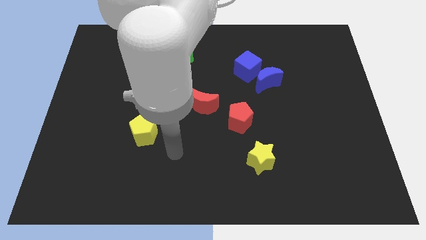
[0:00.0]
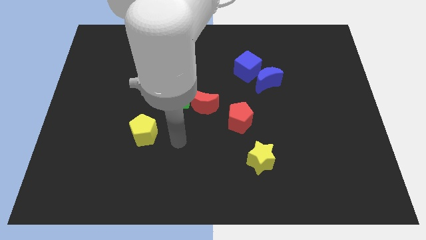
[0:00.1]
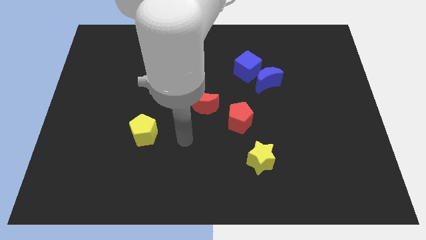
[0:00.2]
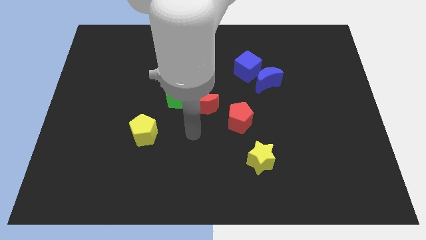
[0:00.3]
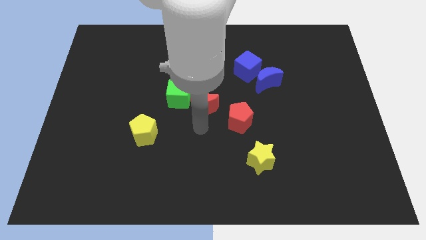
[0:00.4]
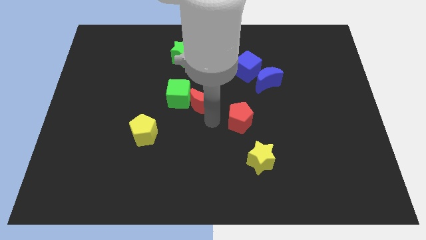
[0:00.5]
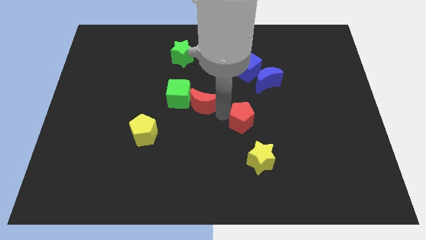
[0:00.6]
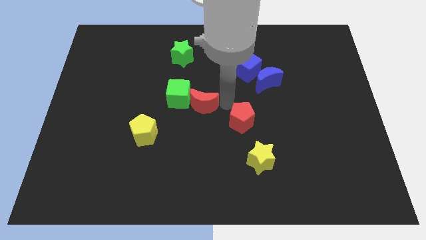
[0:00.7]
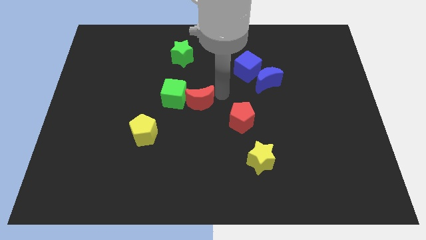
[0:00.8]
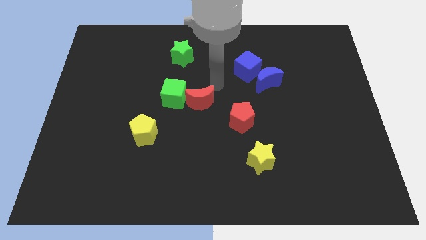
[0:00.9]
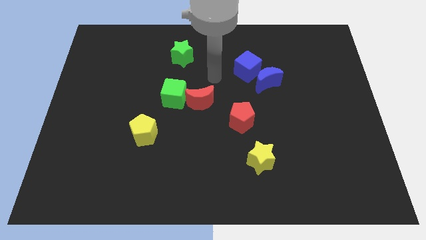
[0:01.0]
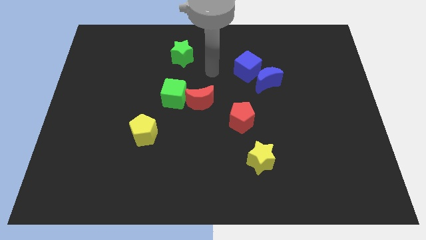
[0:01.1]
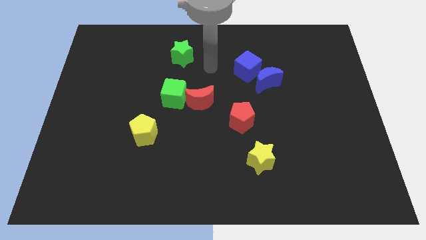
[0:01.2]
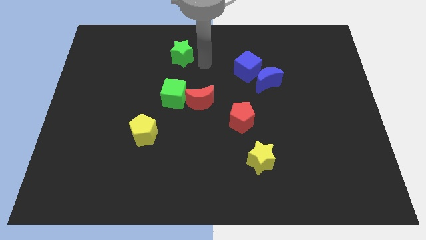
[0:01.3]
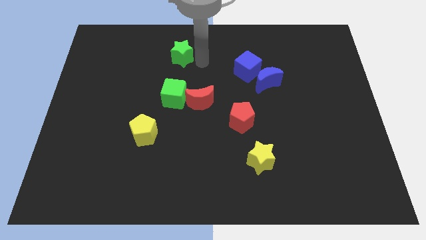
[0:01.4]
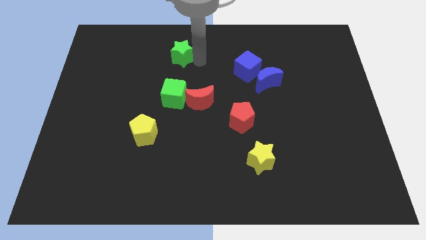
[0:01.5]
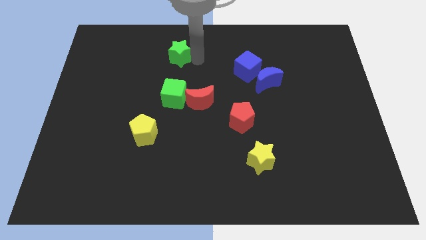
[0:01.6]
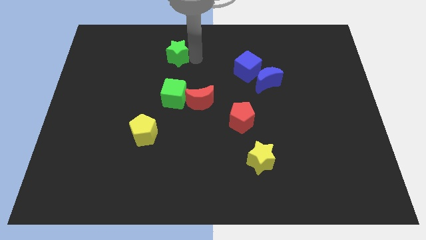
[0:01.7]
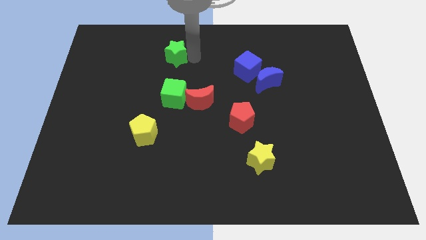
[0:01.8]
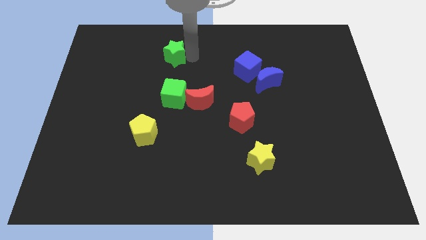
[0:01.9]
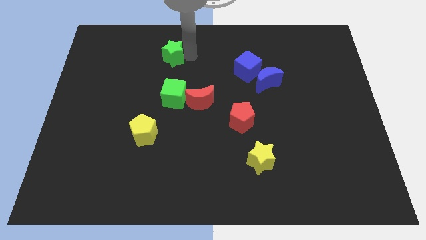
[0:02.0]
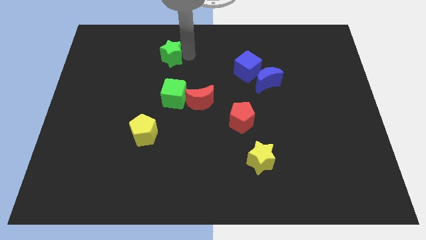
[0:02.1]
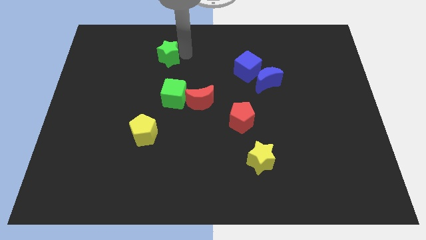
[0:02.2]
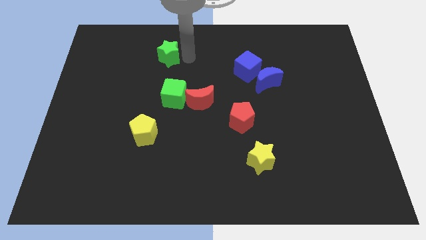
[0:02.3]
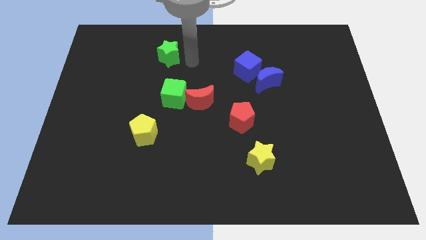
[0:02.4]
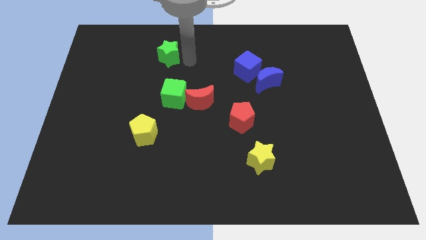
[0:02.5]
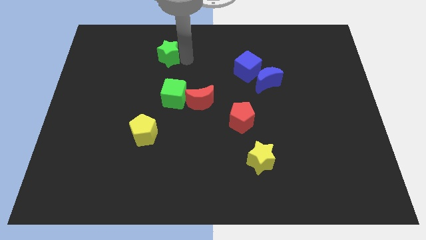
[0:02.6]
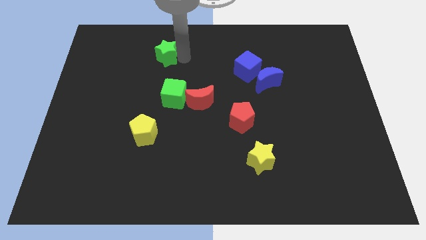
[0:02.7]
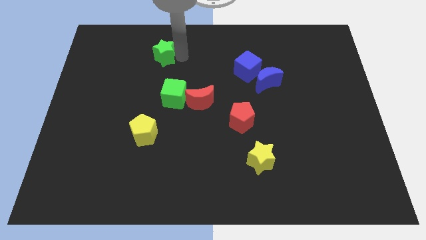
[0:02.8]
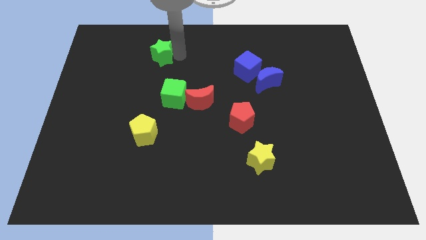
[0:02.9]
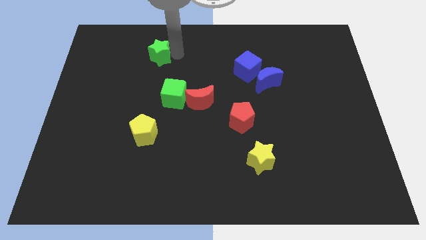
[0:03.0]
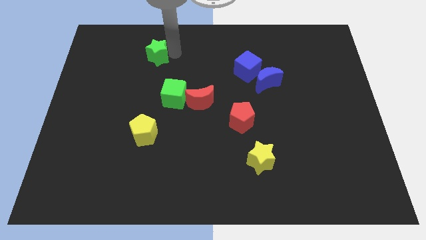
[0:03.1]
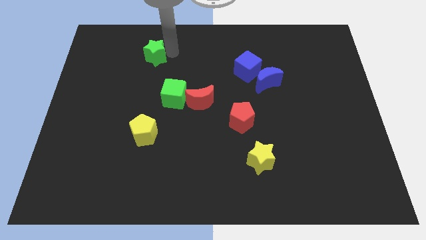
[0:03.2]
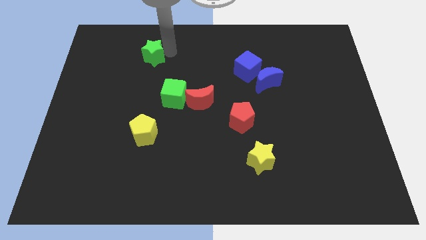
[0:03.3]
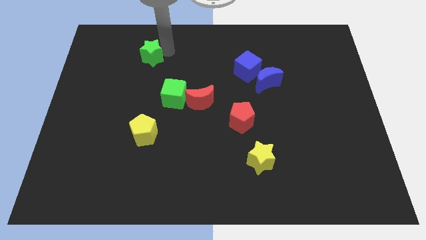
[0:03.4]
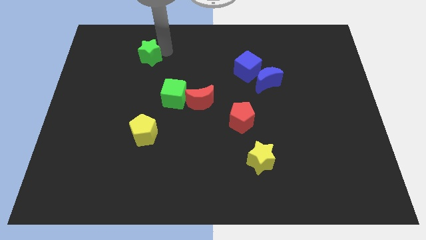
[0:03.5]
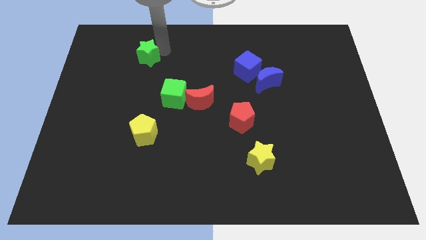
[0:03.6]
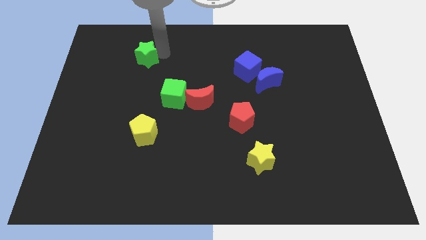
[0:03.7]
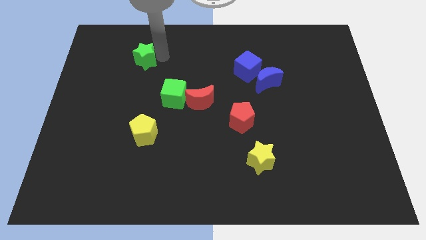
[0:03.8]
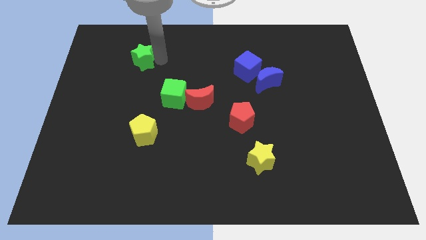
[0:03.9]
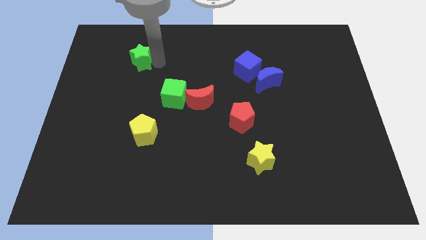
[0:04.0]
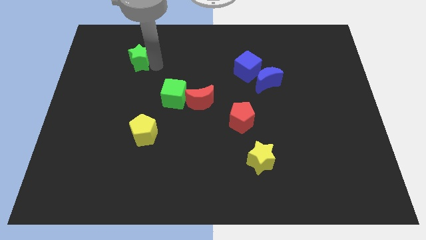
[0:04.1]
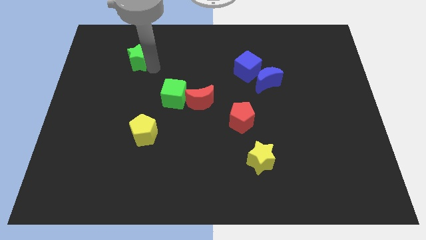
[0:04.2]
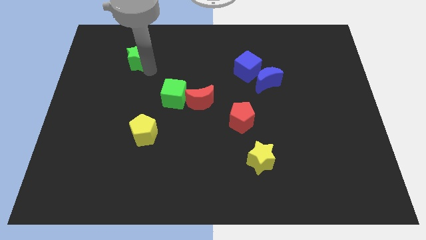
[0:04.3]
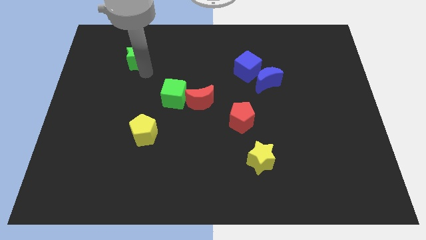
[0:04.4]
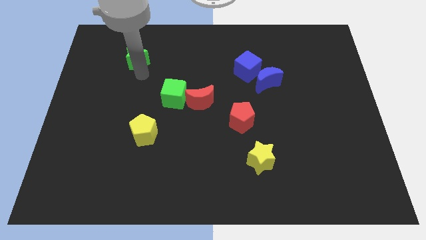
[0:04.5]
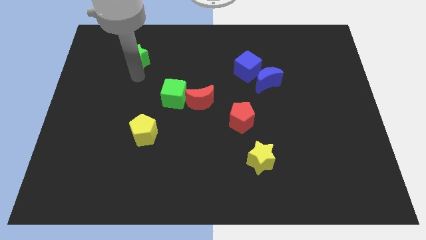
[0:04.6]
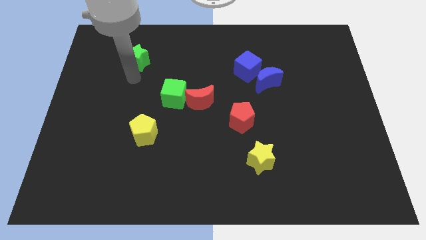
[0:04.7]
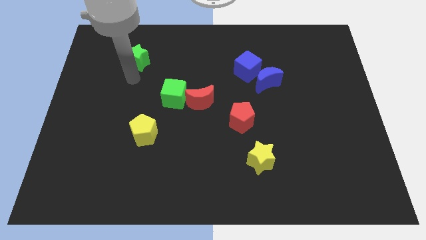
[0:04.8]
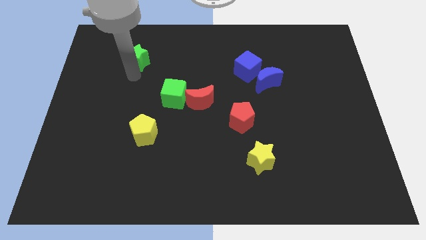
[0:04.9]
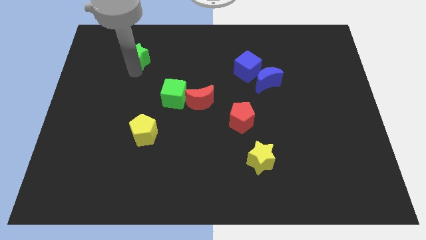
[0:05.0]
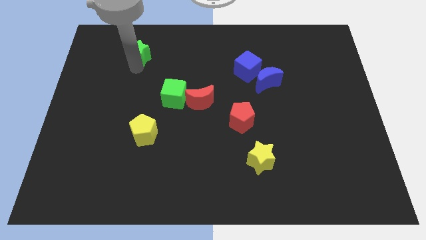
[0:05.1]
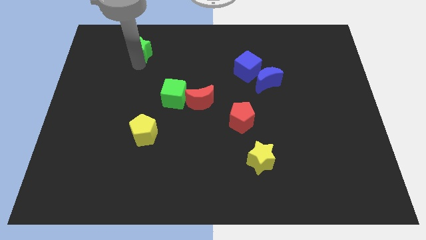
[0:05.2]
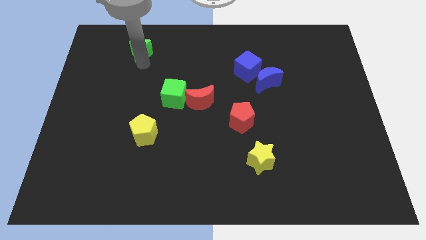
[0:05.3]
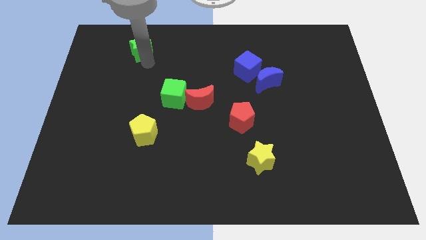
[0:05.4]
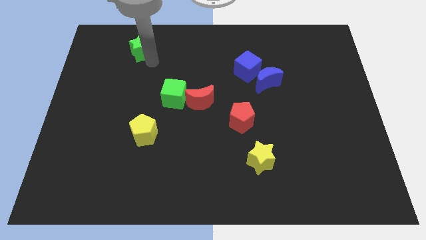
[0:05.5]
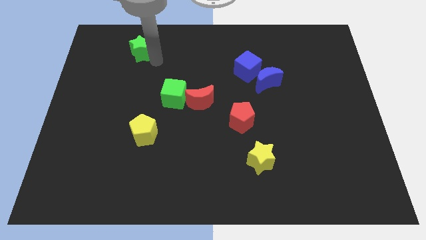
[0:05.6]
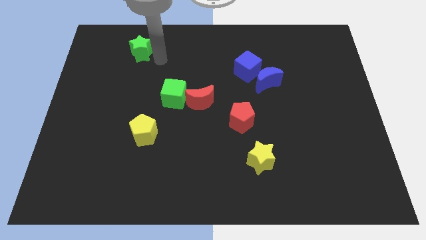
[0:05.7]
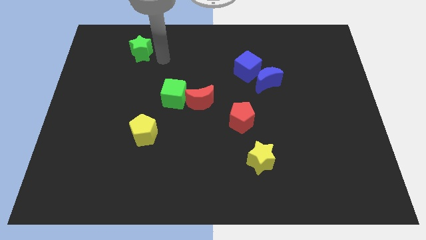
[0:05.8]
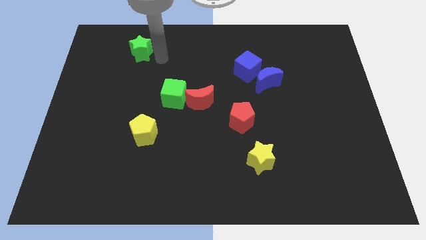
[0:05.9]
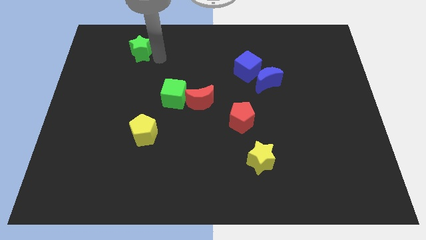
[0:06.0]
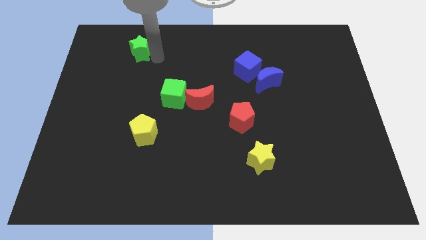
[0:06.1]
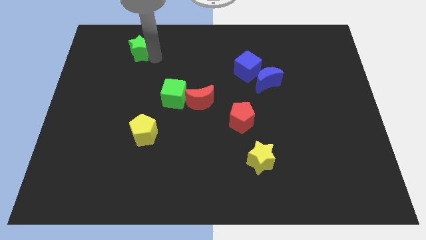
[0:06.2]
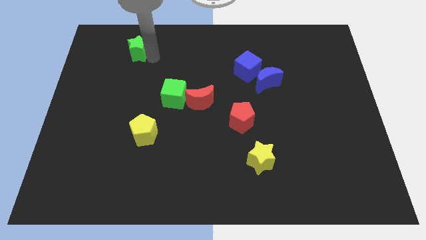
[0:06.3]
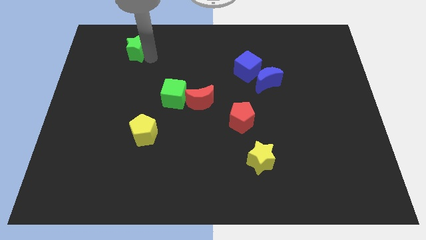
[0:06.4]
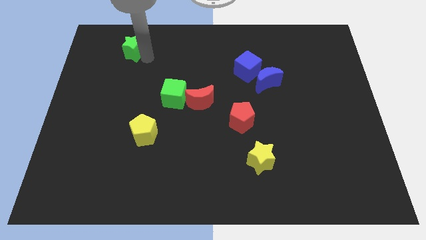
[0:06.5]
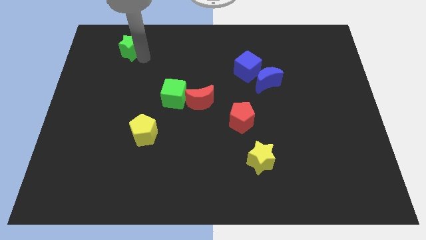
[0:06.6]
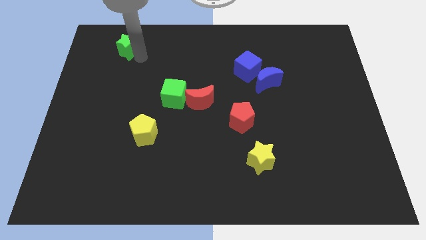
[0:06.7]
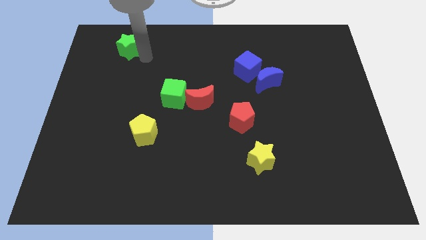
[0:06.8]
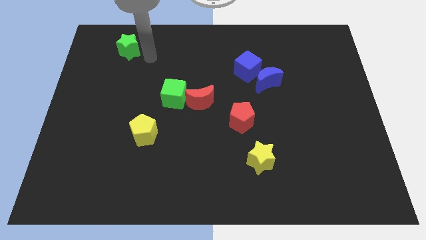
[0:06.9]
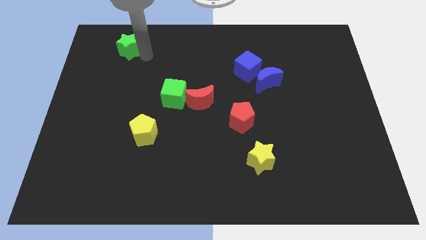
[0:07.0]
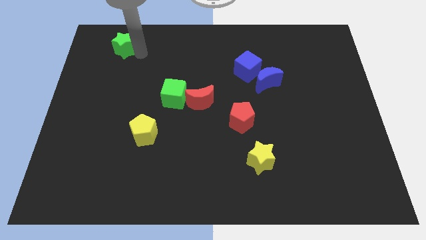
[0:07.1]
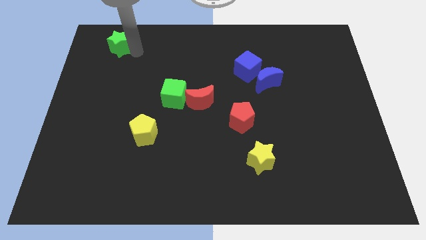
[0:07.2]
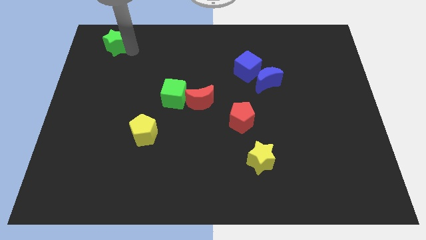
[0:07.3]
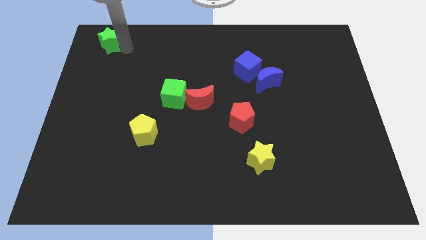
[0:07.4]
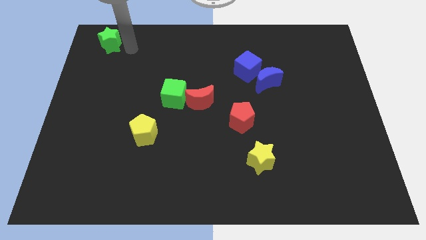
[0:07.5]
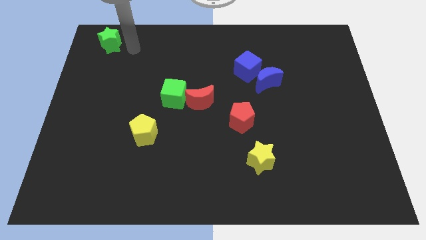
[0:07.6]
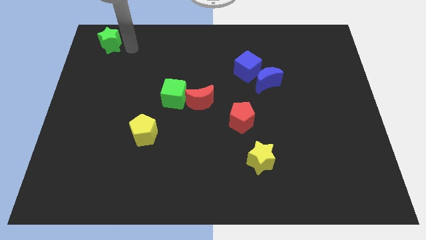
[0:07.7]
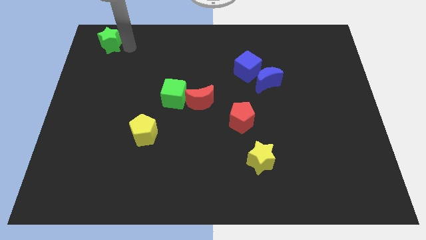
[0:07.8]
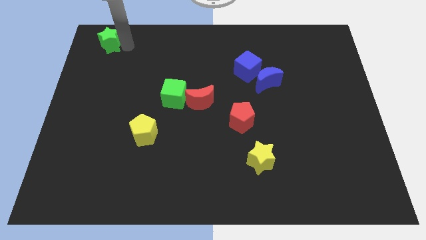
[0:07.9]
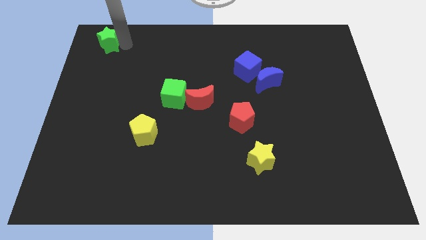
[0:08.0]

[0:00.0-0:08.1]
put the green star to the top left corner
